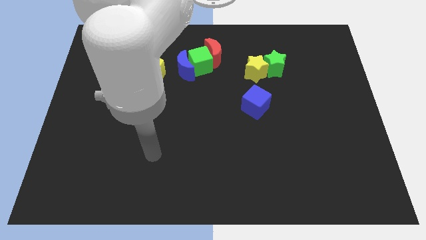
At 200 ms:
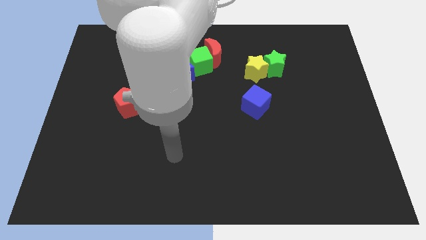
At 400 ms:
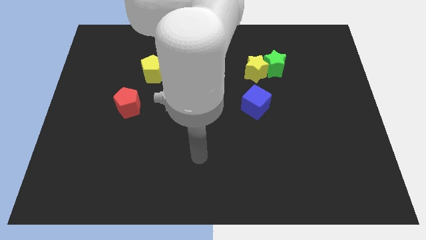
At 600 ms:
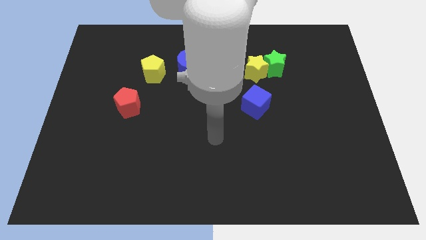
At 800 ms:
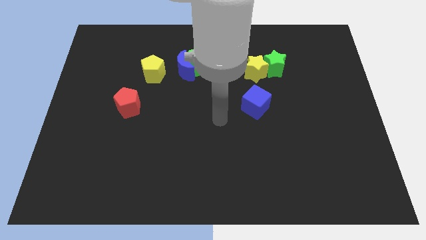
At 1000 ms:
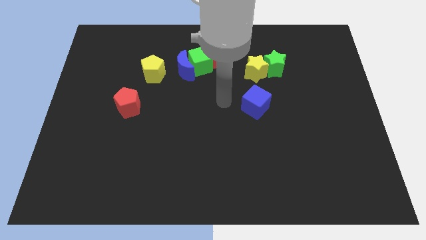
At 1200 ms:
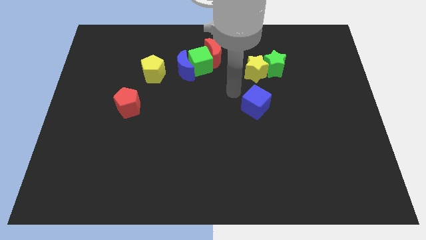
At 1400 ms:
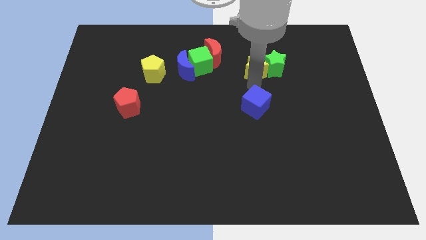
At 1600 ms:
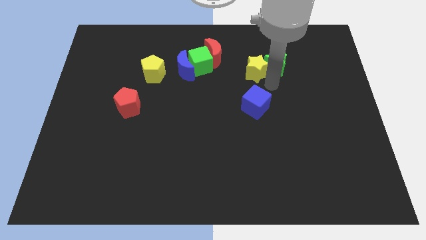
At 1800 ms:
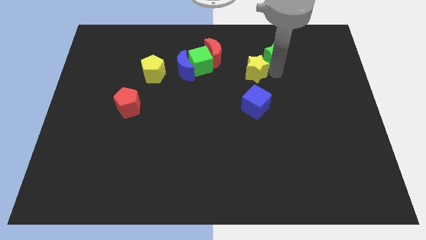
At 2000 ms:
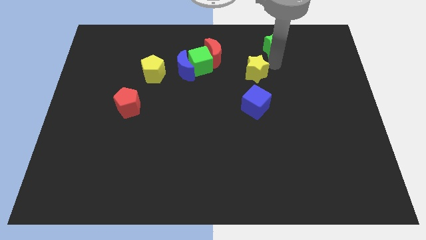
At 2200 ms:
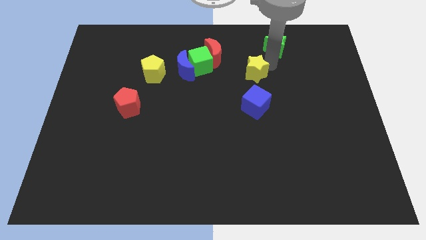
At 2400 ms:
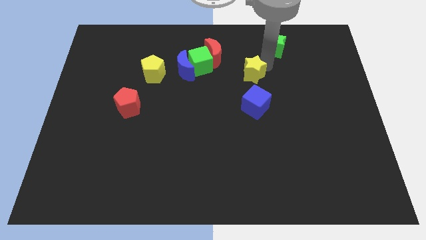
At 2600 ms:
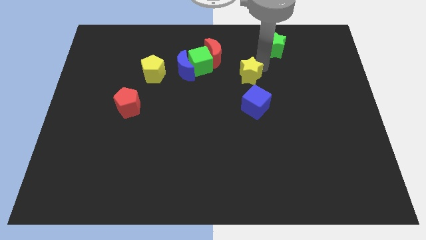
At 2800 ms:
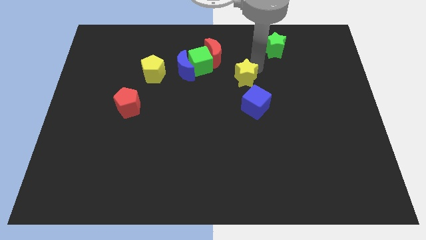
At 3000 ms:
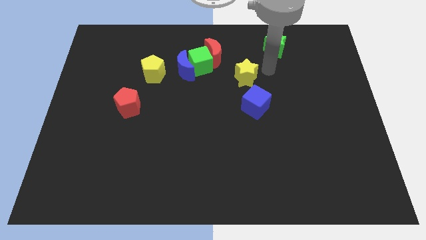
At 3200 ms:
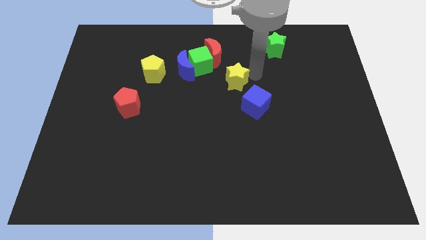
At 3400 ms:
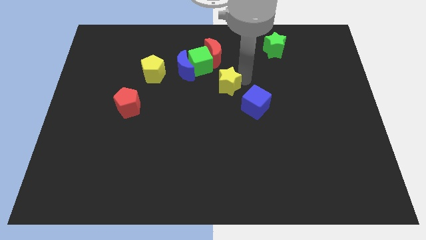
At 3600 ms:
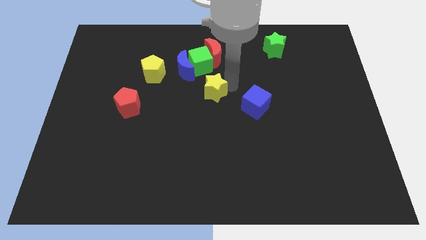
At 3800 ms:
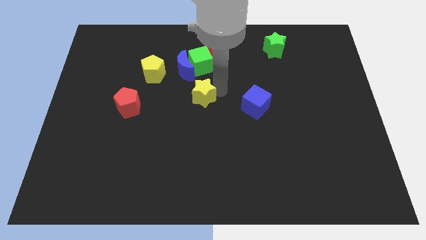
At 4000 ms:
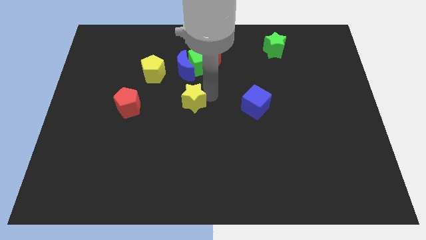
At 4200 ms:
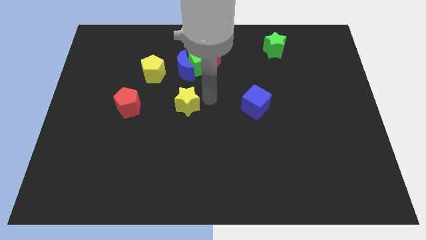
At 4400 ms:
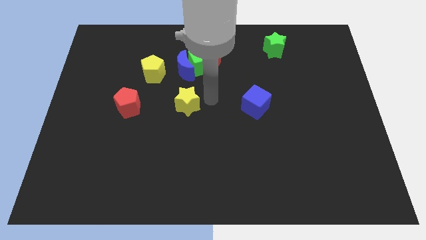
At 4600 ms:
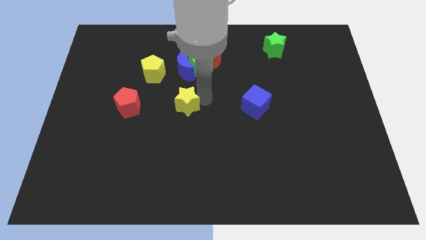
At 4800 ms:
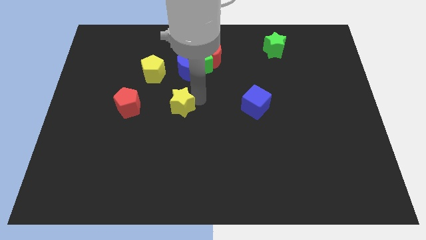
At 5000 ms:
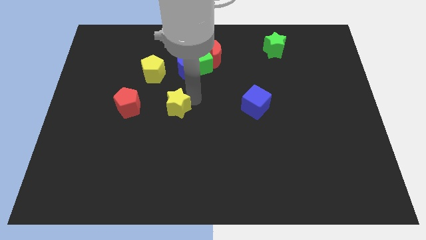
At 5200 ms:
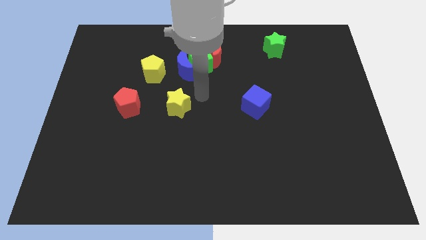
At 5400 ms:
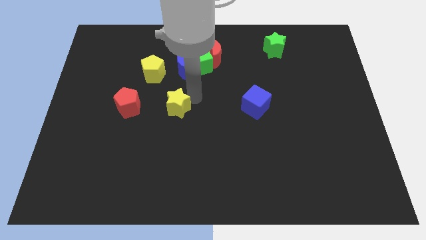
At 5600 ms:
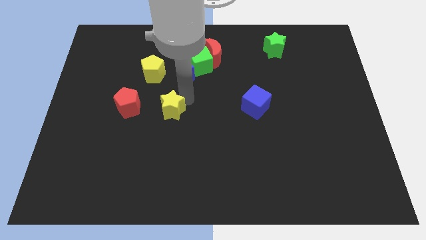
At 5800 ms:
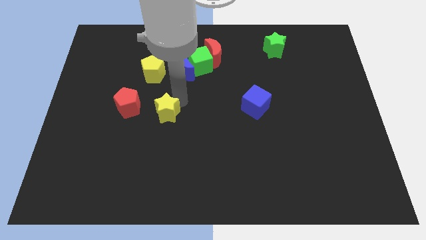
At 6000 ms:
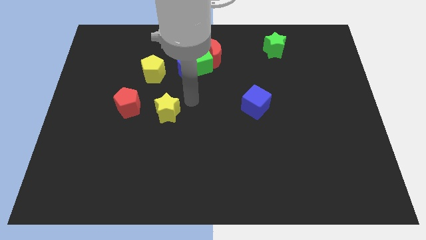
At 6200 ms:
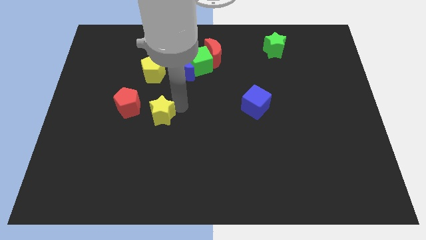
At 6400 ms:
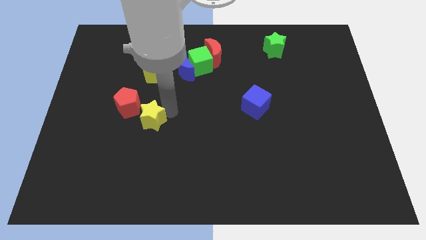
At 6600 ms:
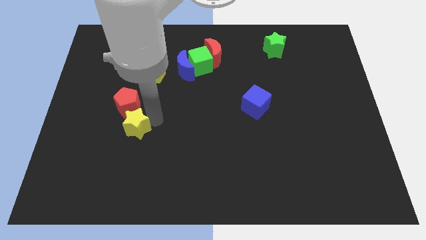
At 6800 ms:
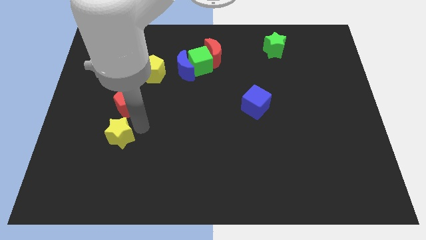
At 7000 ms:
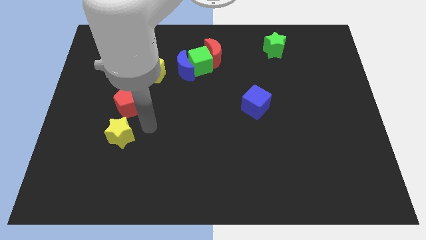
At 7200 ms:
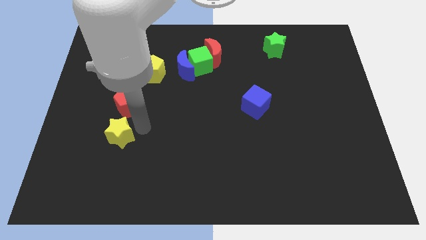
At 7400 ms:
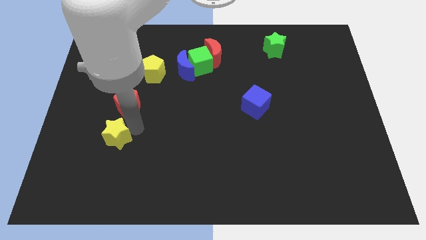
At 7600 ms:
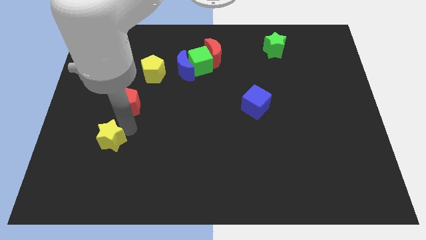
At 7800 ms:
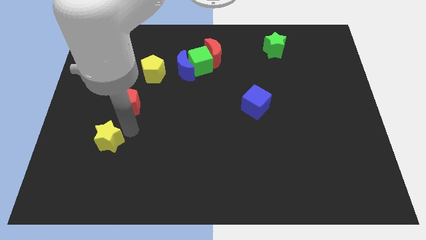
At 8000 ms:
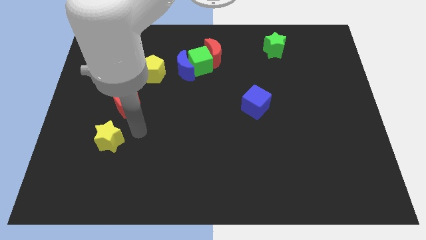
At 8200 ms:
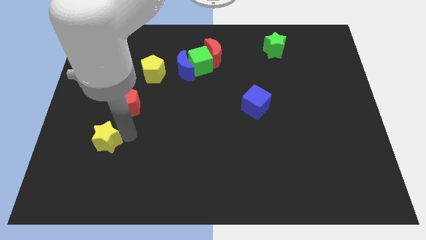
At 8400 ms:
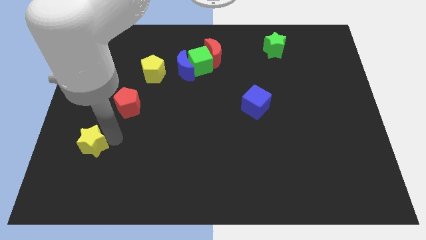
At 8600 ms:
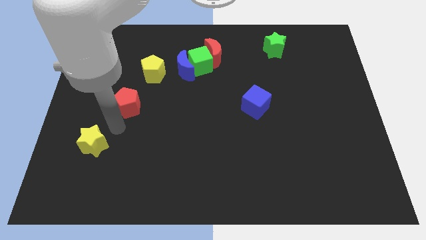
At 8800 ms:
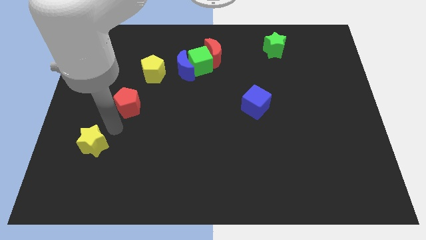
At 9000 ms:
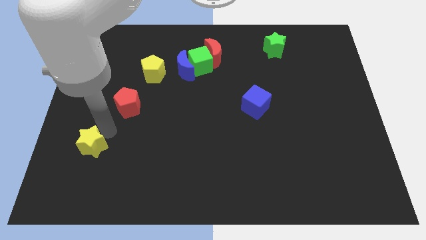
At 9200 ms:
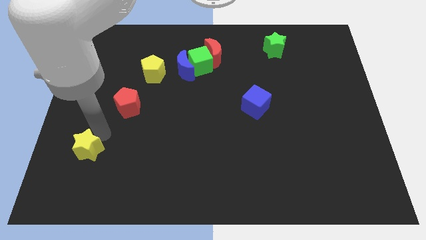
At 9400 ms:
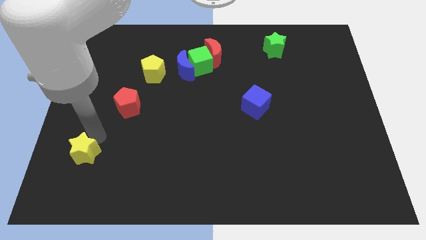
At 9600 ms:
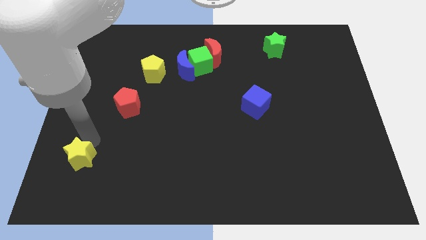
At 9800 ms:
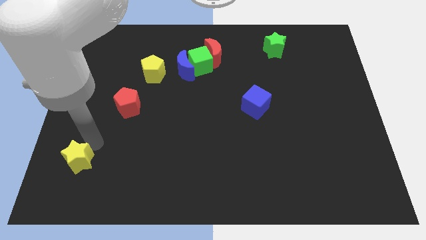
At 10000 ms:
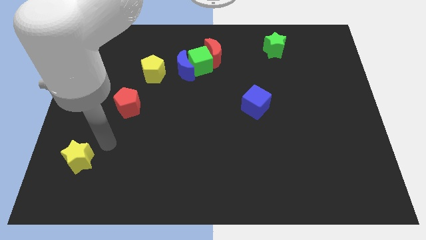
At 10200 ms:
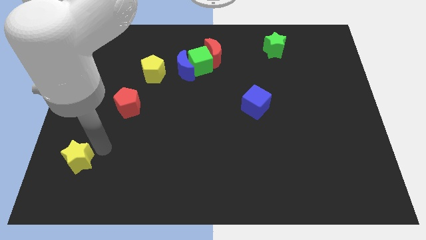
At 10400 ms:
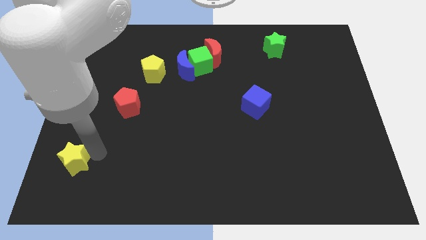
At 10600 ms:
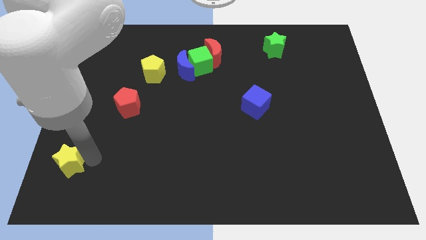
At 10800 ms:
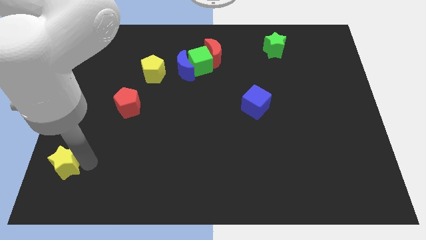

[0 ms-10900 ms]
put the yellow star to the bottom left
